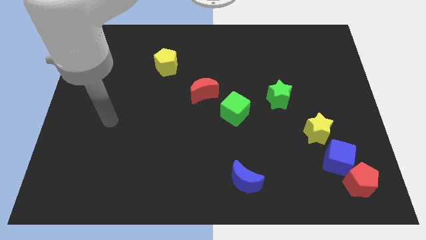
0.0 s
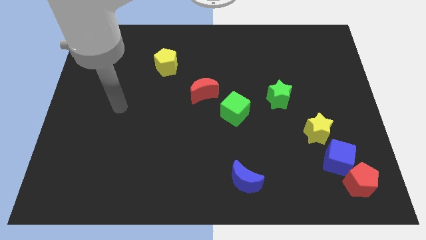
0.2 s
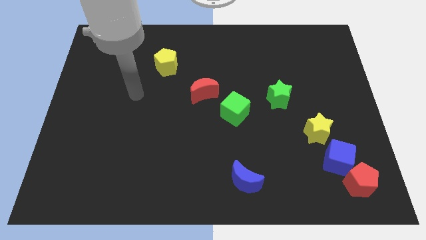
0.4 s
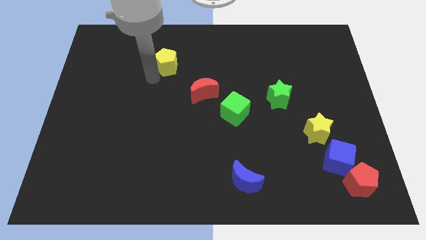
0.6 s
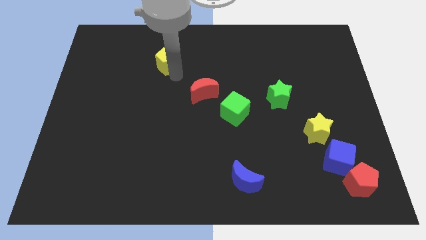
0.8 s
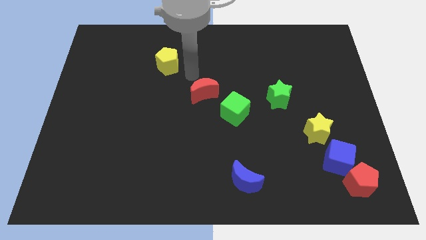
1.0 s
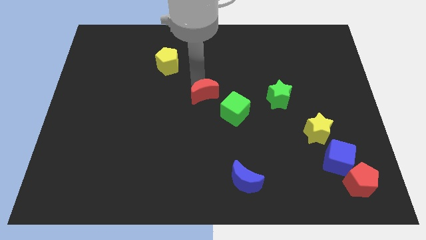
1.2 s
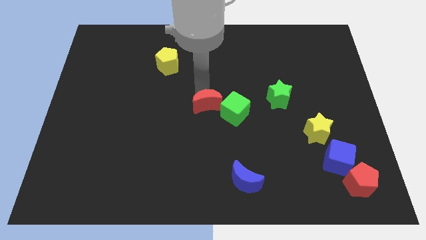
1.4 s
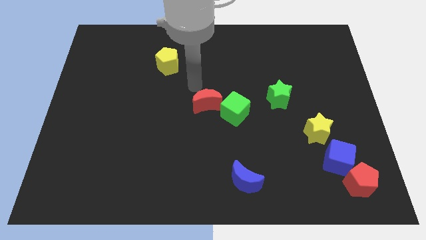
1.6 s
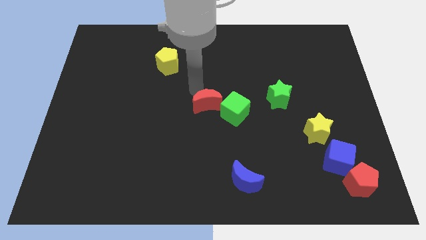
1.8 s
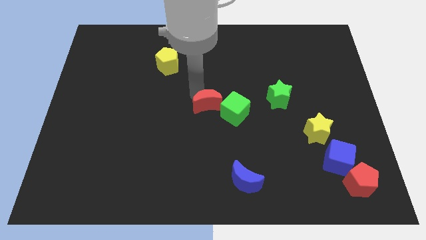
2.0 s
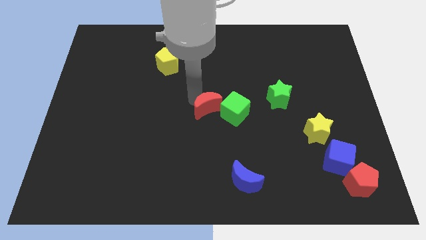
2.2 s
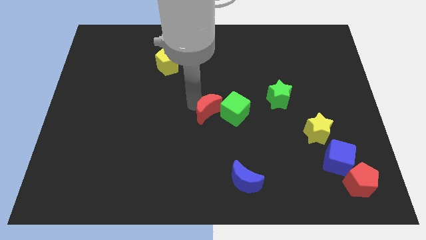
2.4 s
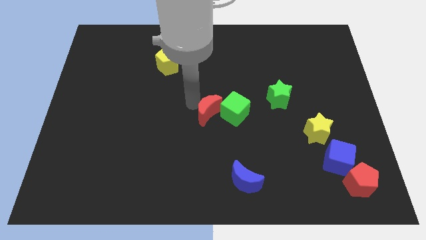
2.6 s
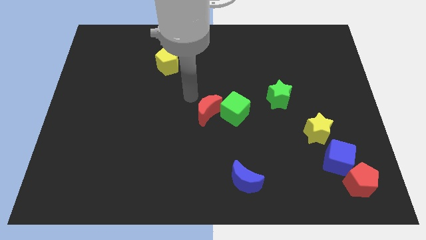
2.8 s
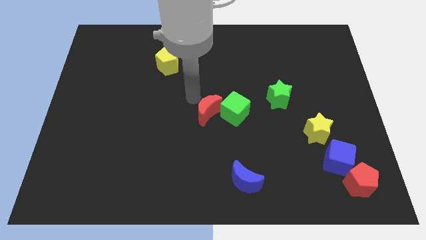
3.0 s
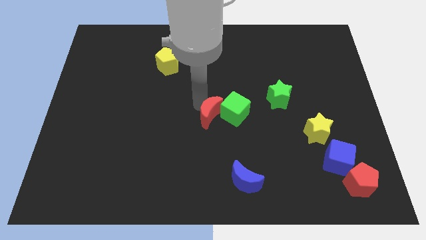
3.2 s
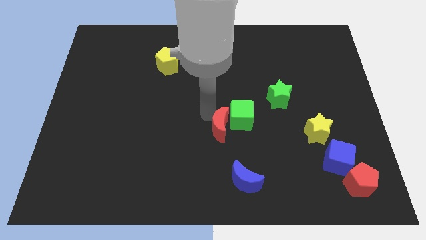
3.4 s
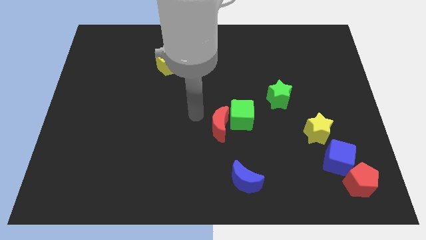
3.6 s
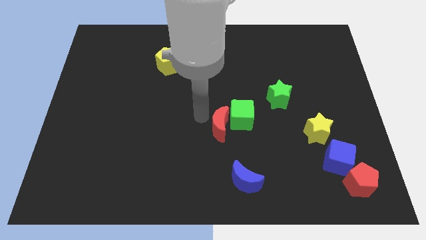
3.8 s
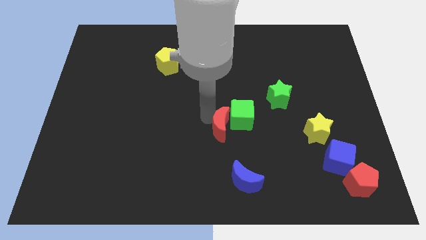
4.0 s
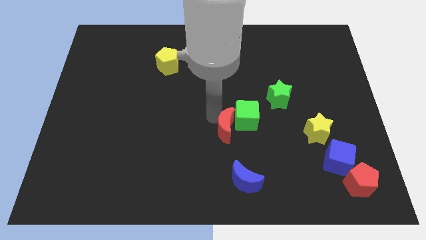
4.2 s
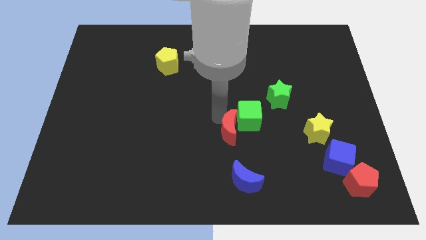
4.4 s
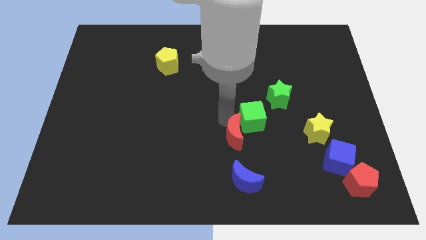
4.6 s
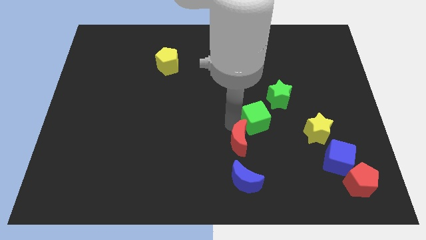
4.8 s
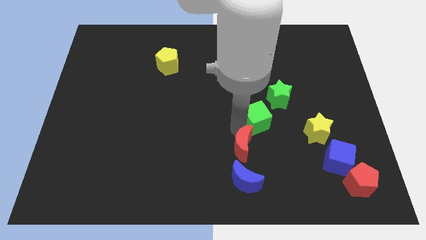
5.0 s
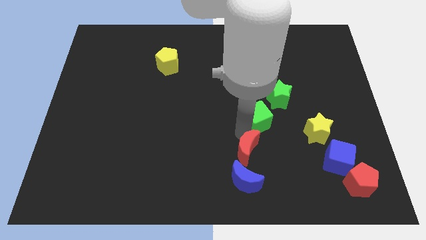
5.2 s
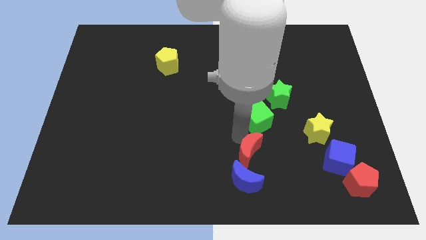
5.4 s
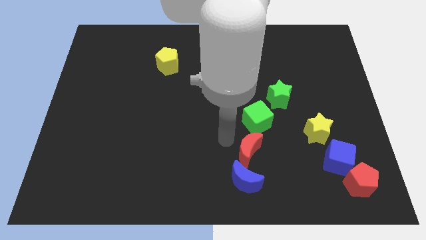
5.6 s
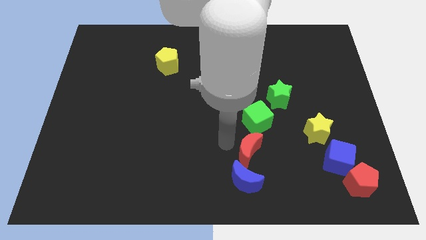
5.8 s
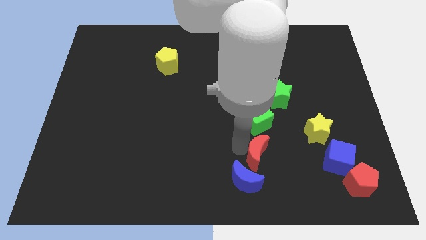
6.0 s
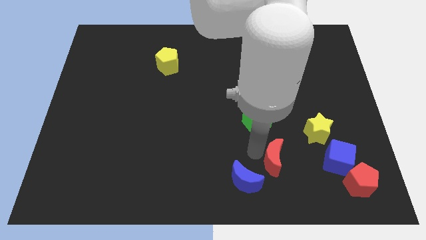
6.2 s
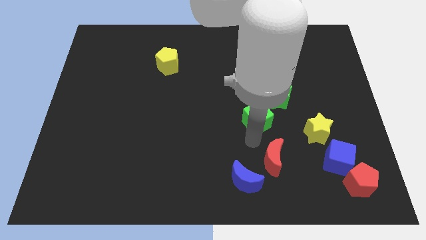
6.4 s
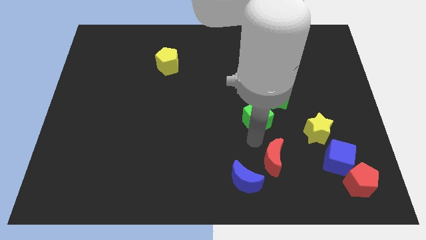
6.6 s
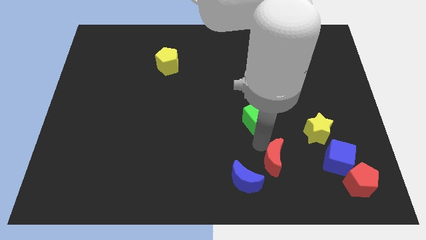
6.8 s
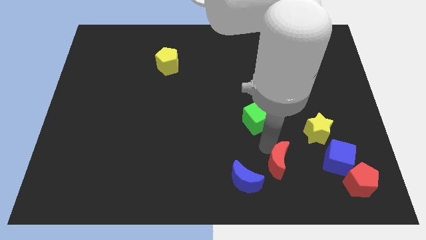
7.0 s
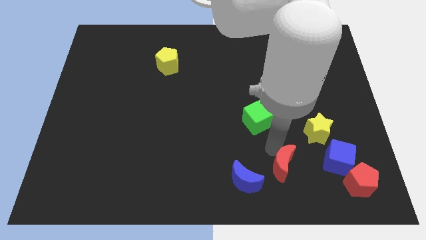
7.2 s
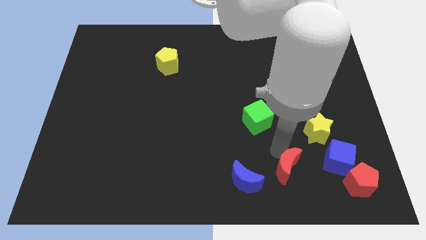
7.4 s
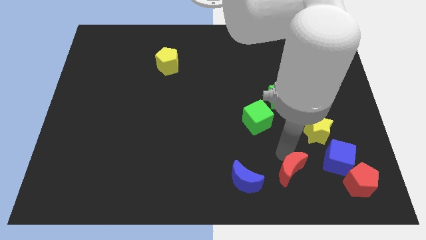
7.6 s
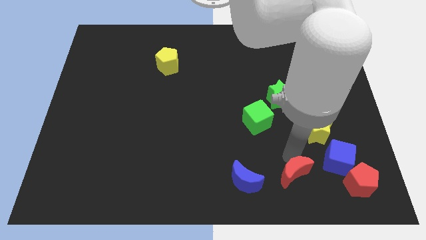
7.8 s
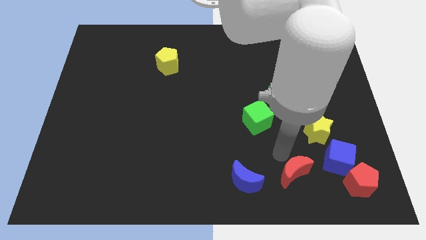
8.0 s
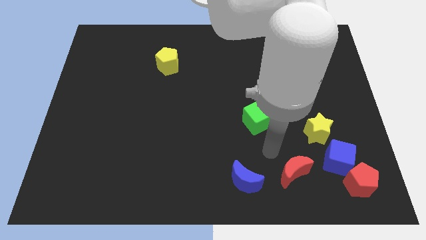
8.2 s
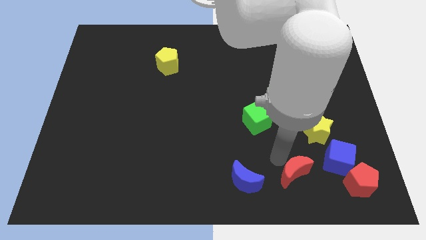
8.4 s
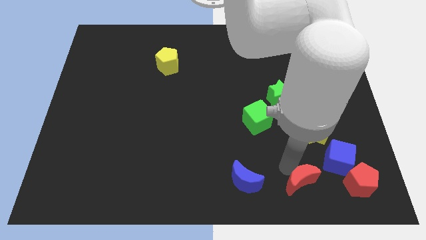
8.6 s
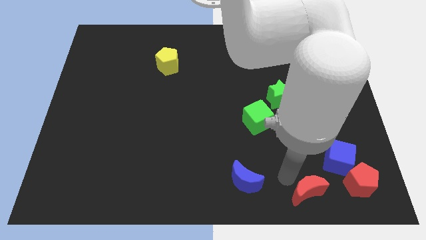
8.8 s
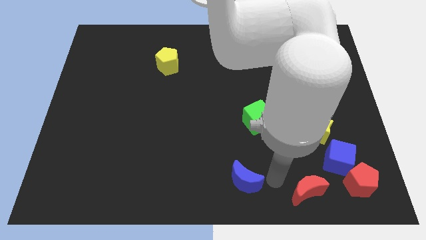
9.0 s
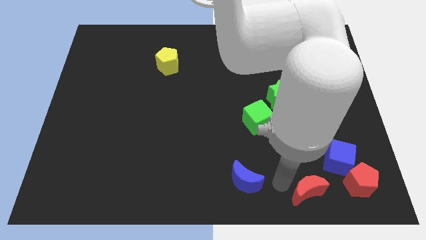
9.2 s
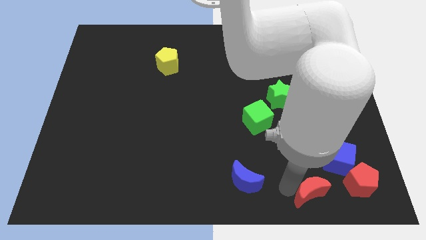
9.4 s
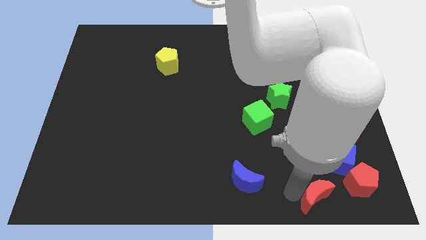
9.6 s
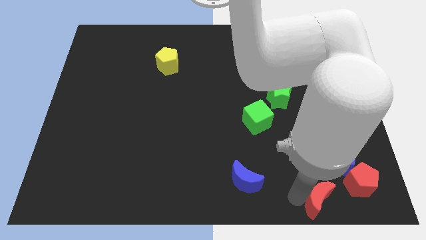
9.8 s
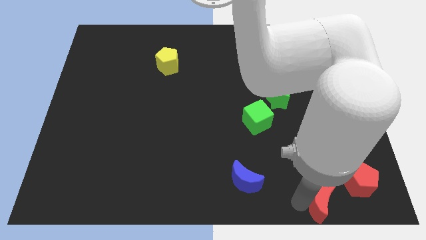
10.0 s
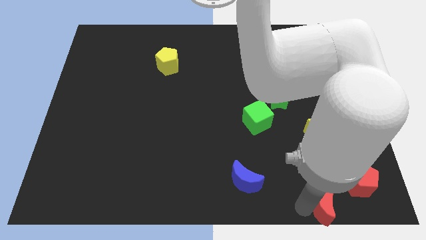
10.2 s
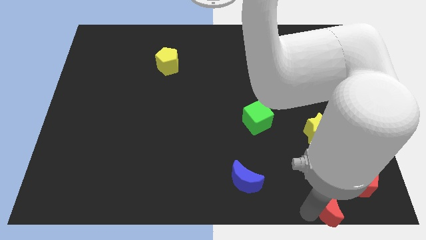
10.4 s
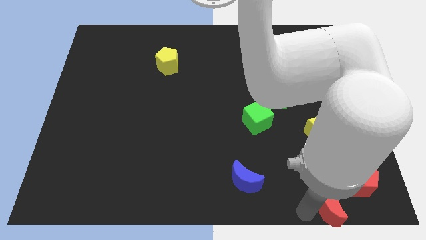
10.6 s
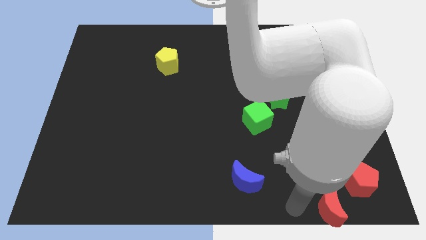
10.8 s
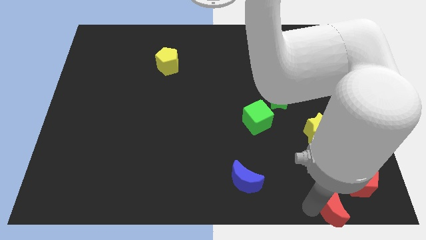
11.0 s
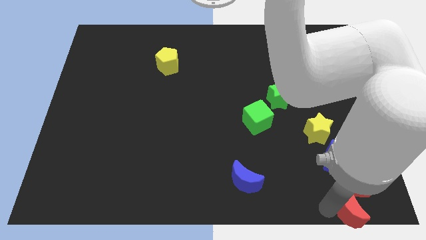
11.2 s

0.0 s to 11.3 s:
push the red moon to the bottom right

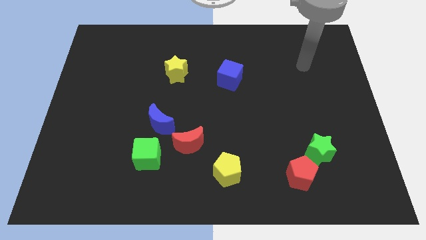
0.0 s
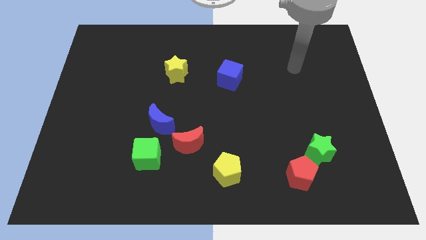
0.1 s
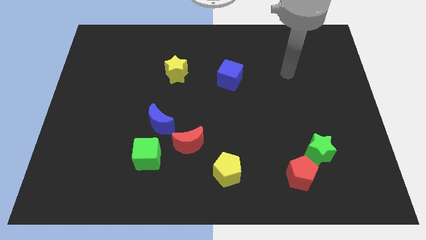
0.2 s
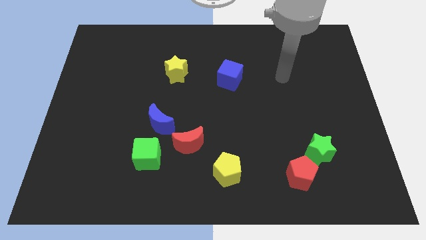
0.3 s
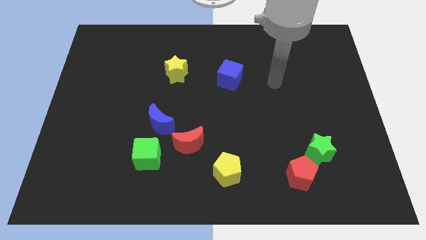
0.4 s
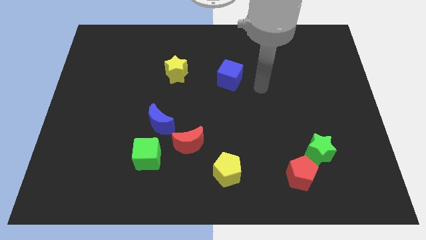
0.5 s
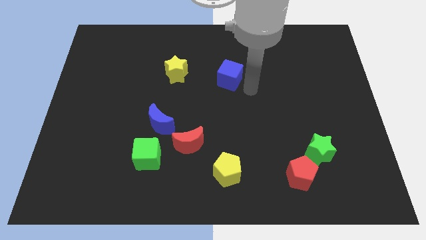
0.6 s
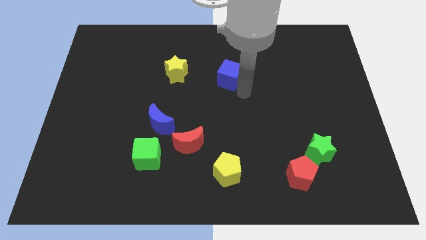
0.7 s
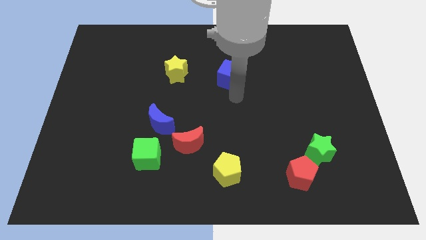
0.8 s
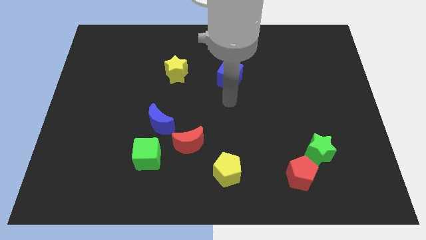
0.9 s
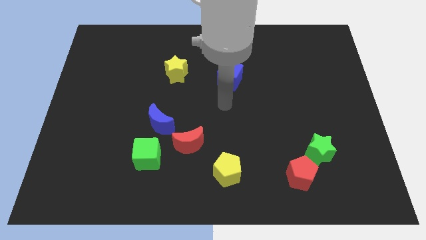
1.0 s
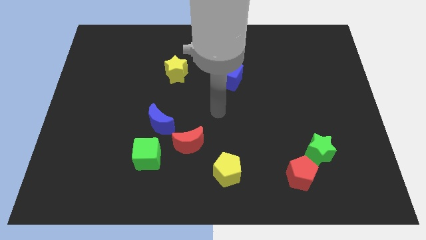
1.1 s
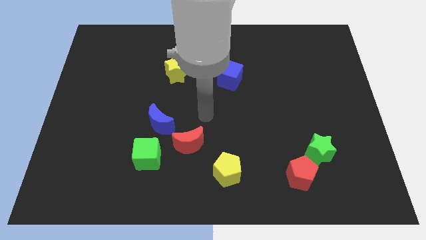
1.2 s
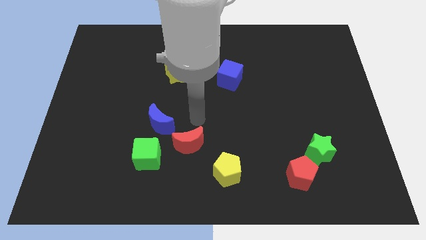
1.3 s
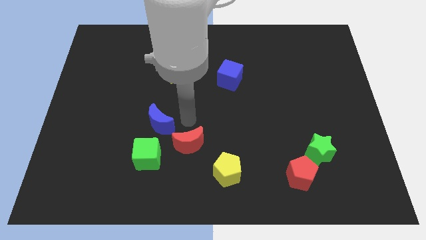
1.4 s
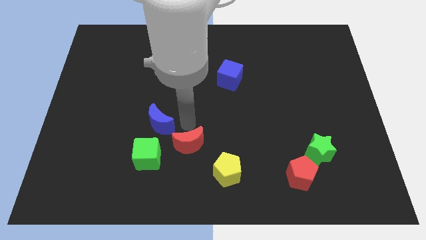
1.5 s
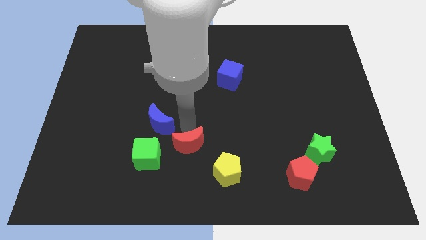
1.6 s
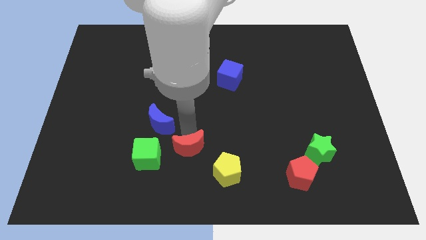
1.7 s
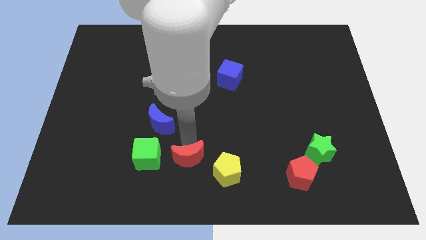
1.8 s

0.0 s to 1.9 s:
put the red moon to the bottom

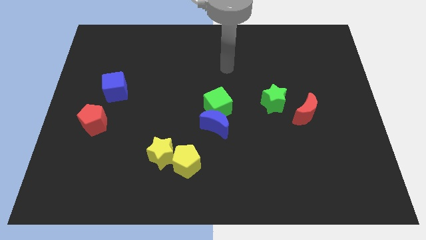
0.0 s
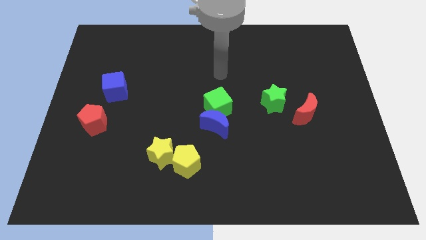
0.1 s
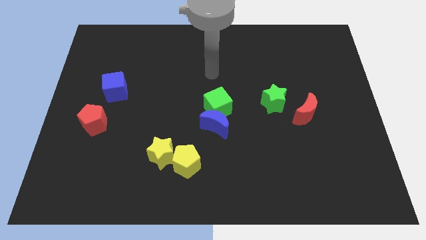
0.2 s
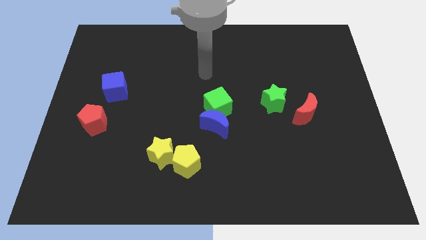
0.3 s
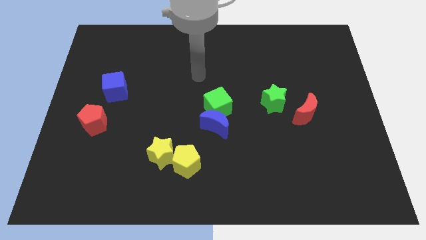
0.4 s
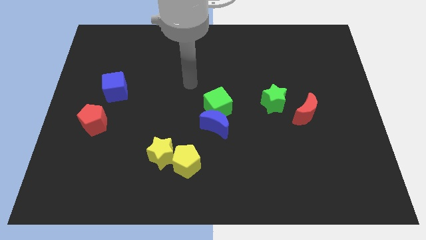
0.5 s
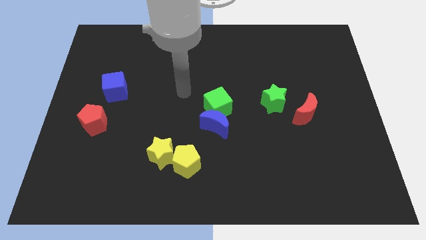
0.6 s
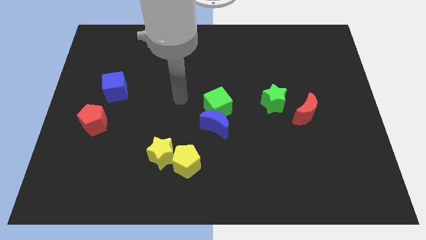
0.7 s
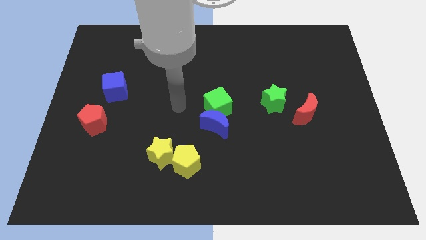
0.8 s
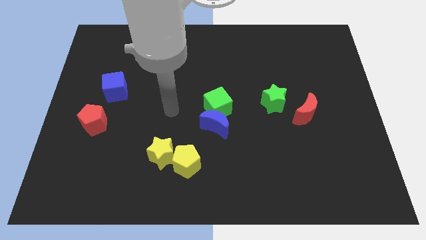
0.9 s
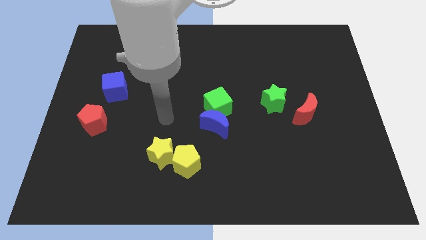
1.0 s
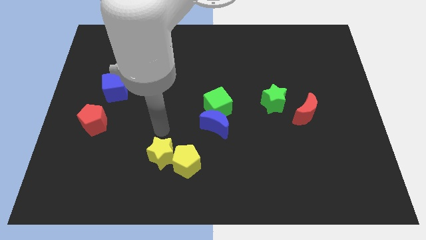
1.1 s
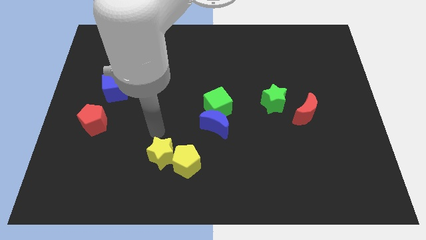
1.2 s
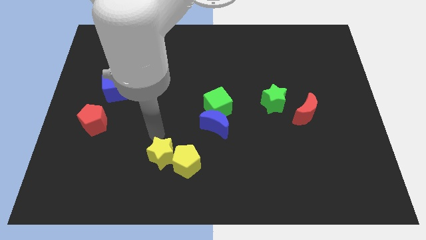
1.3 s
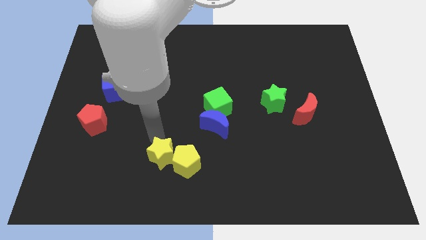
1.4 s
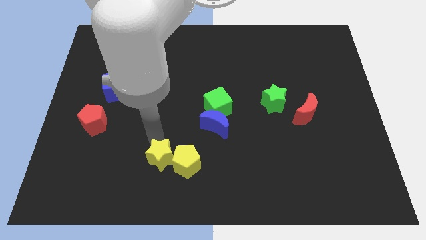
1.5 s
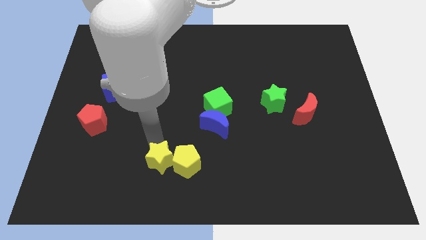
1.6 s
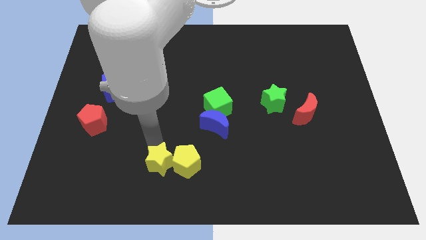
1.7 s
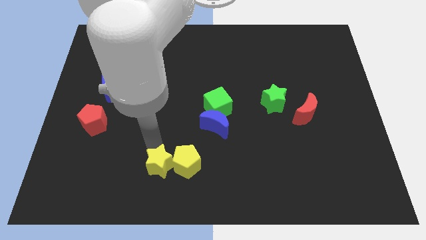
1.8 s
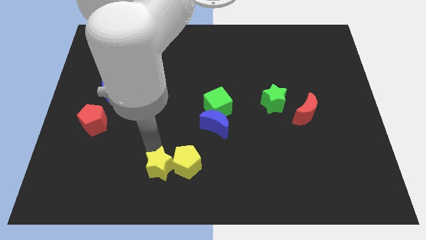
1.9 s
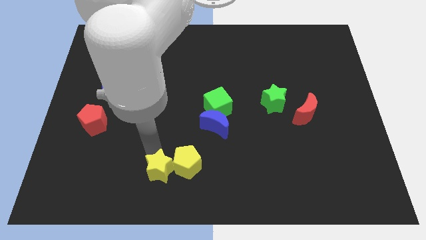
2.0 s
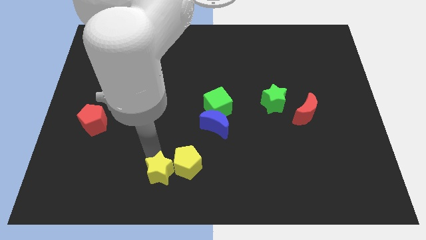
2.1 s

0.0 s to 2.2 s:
slide the yellow star to the bottom side
